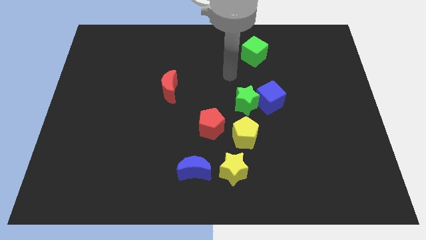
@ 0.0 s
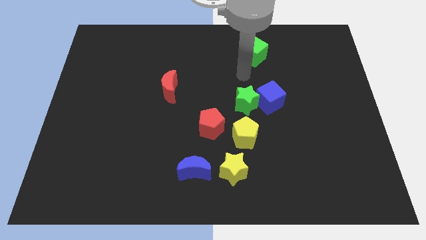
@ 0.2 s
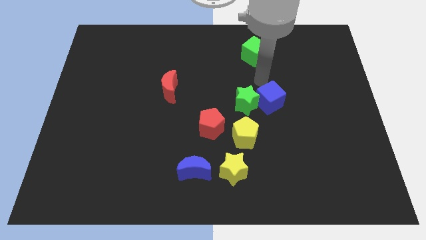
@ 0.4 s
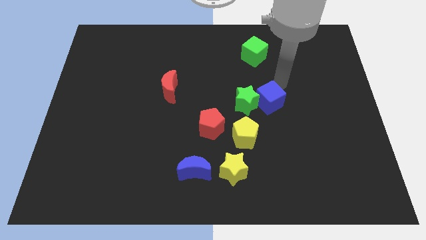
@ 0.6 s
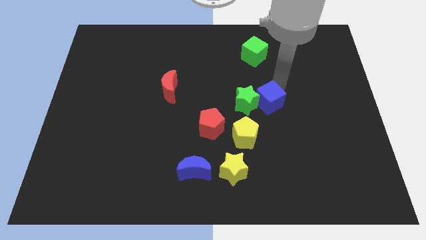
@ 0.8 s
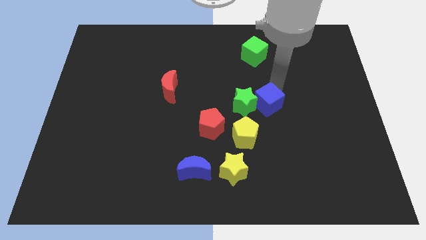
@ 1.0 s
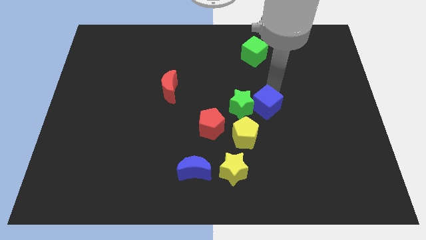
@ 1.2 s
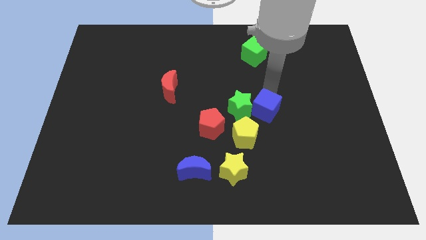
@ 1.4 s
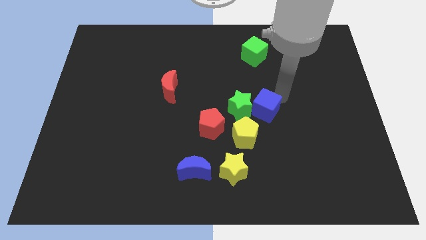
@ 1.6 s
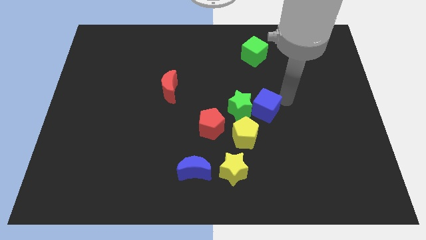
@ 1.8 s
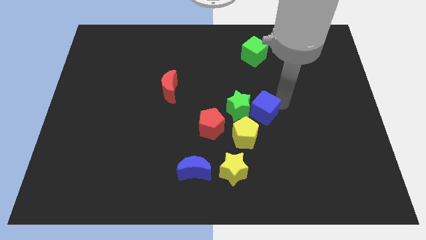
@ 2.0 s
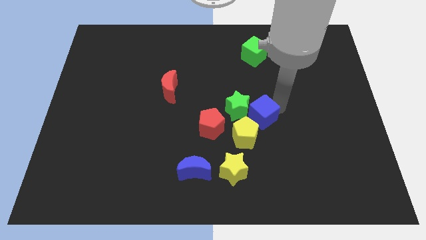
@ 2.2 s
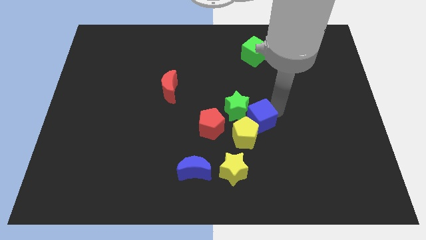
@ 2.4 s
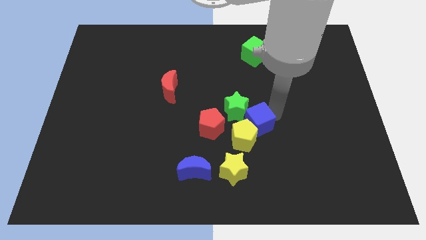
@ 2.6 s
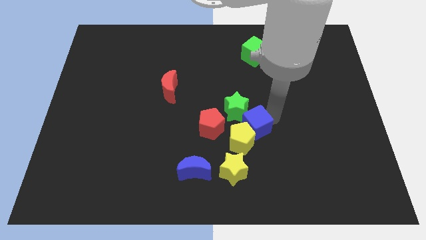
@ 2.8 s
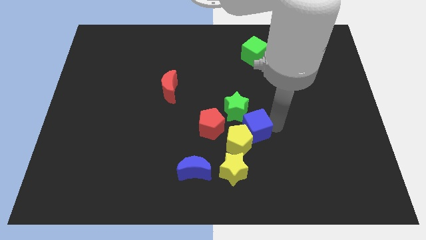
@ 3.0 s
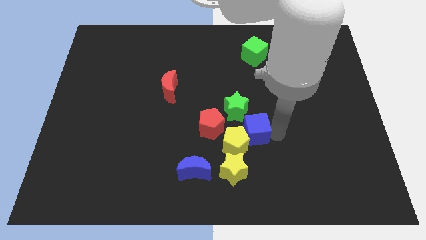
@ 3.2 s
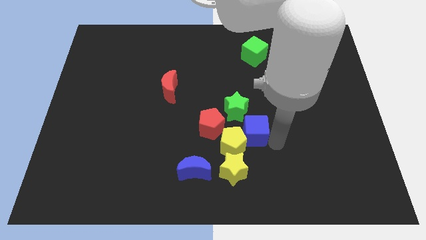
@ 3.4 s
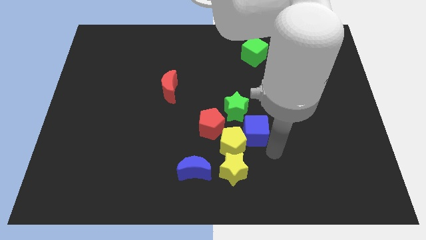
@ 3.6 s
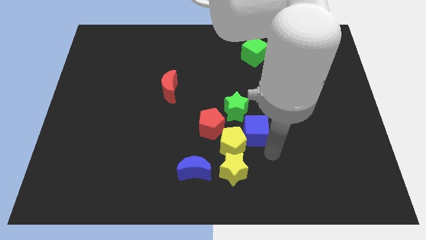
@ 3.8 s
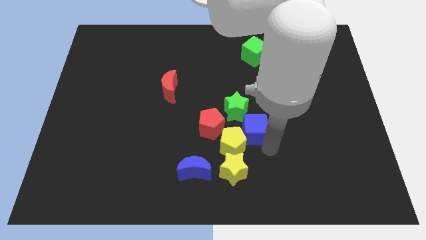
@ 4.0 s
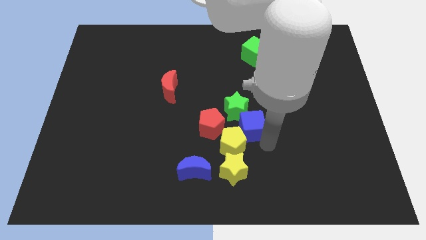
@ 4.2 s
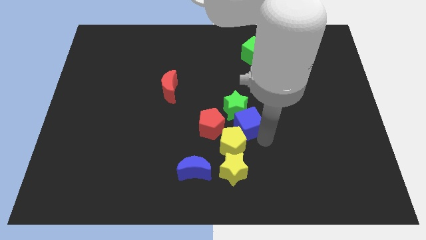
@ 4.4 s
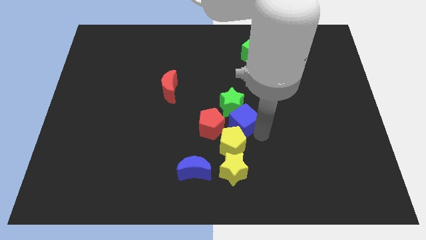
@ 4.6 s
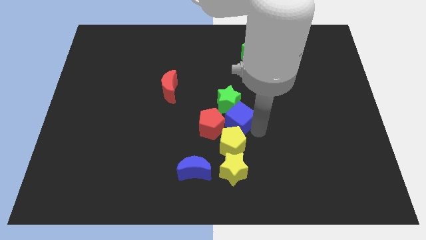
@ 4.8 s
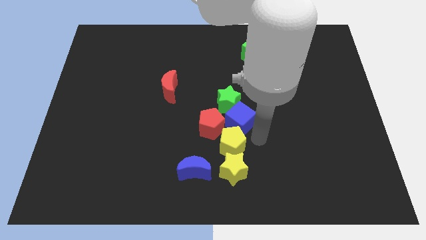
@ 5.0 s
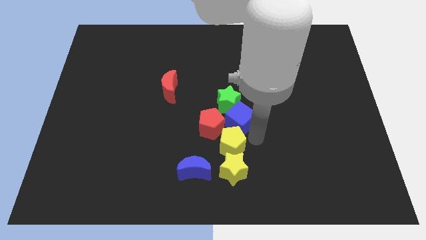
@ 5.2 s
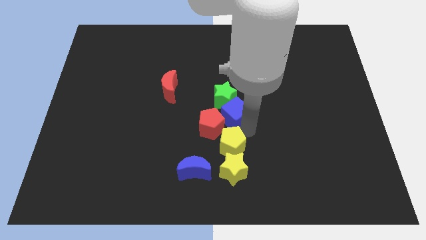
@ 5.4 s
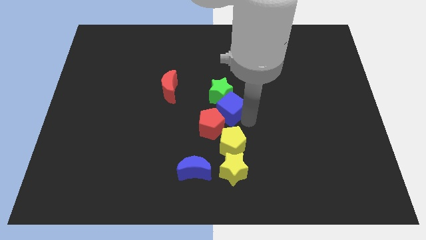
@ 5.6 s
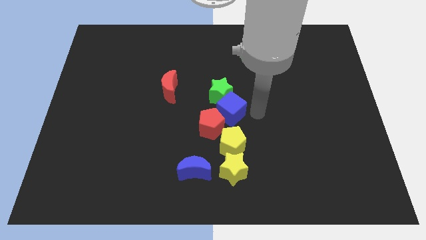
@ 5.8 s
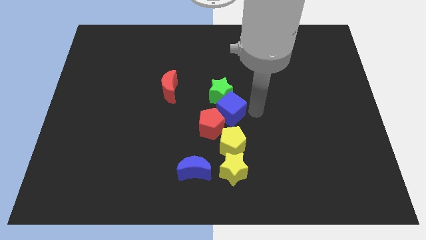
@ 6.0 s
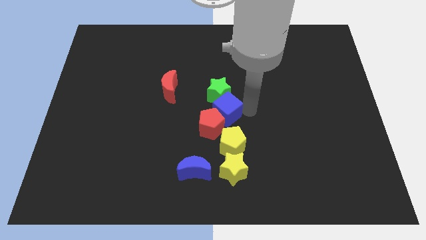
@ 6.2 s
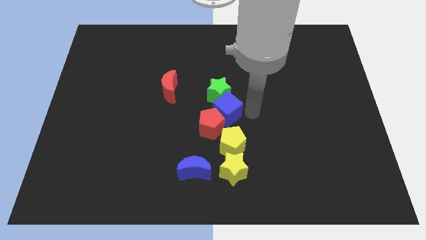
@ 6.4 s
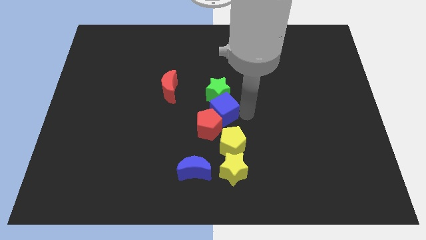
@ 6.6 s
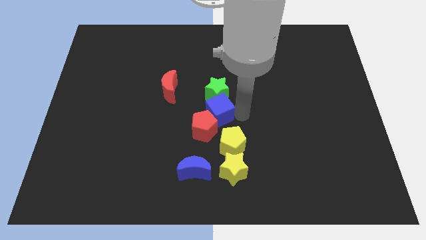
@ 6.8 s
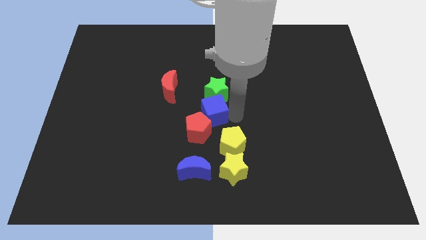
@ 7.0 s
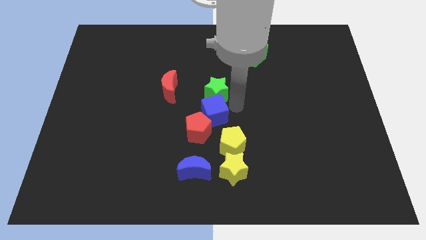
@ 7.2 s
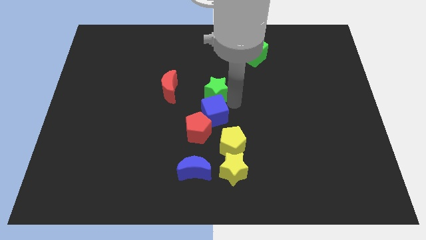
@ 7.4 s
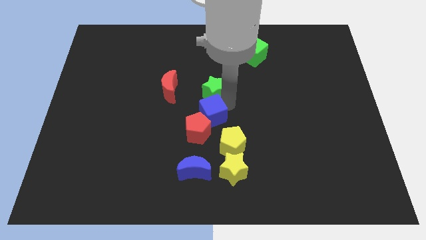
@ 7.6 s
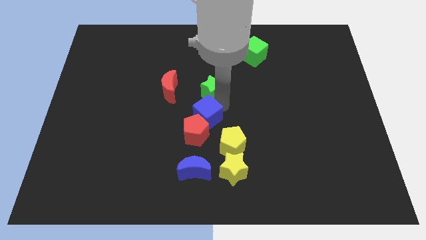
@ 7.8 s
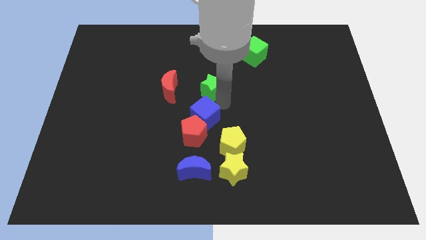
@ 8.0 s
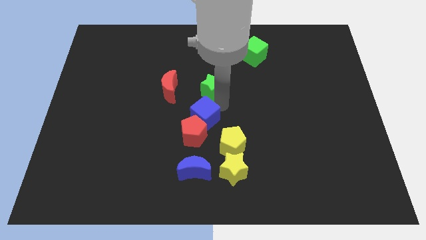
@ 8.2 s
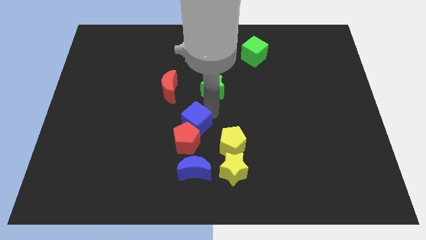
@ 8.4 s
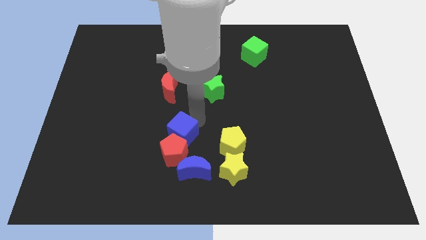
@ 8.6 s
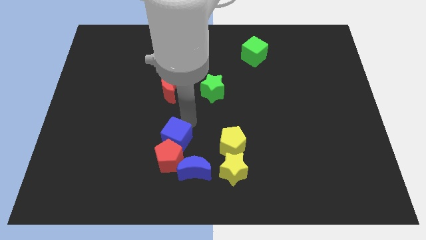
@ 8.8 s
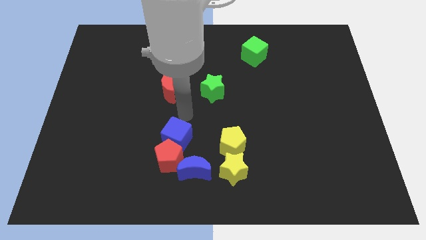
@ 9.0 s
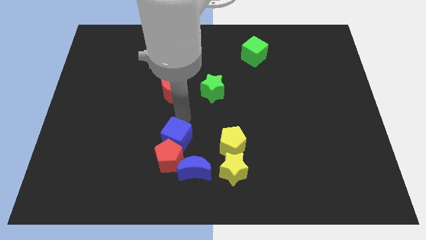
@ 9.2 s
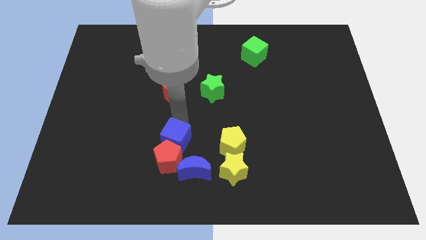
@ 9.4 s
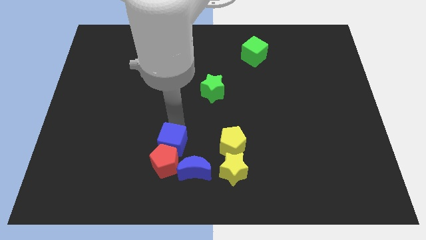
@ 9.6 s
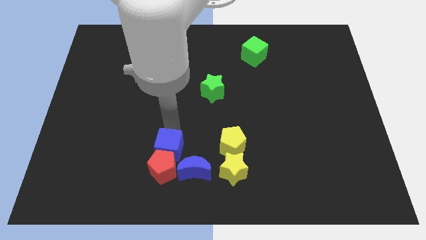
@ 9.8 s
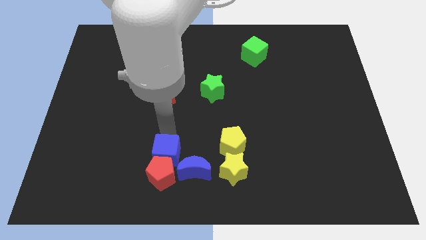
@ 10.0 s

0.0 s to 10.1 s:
push the blue cube to the left of the yellow star

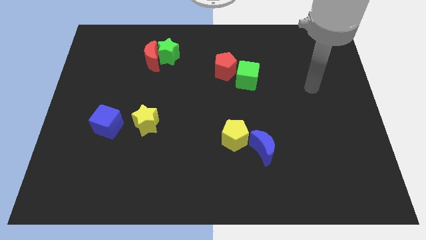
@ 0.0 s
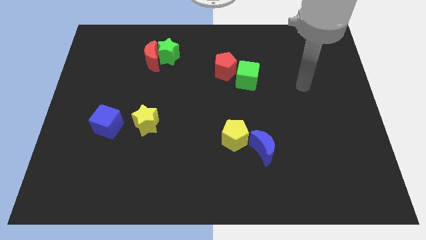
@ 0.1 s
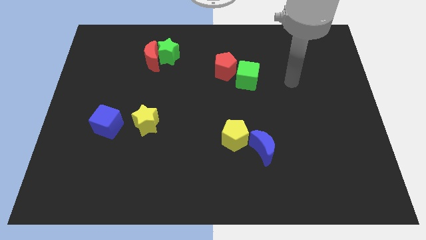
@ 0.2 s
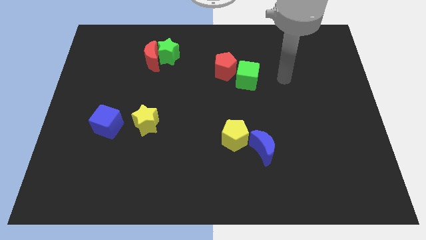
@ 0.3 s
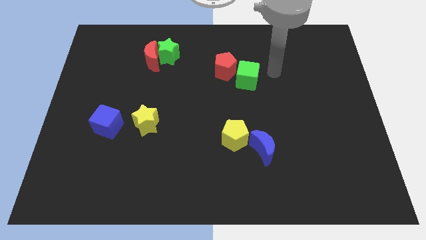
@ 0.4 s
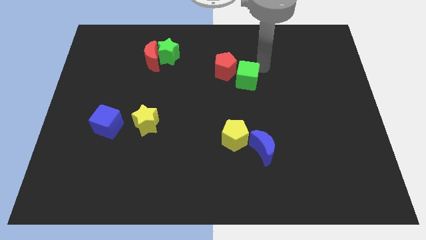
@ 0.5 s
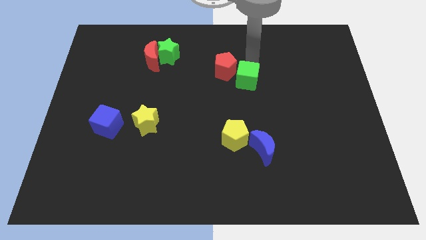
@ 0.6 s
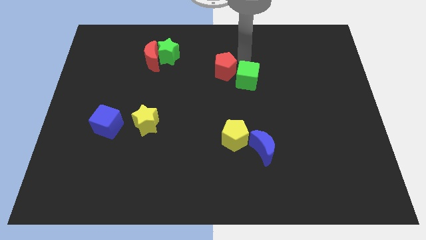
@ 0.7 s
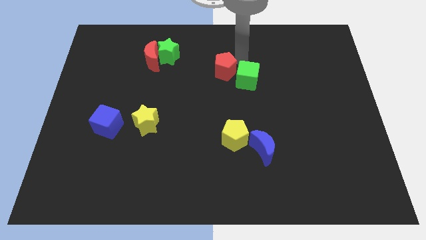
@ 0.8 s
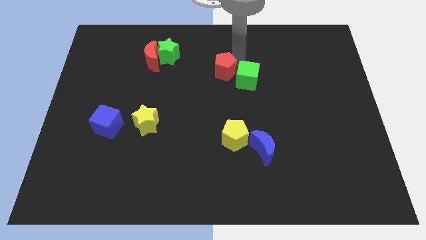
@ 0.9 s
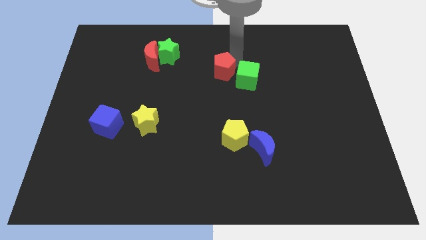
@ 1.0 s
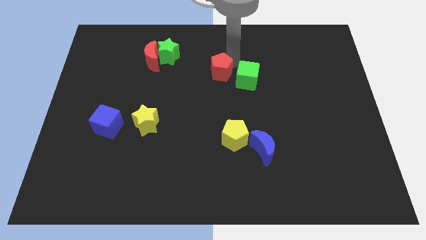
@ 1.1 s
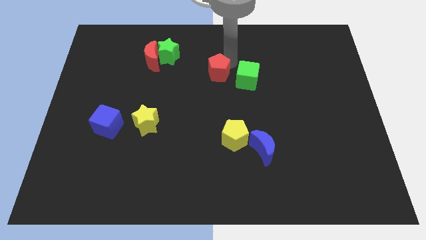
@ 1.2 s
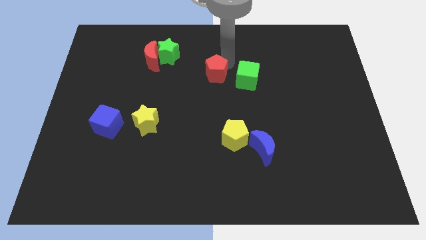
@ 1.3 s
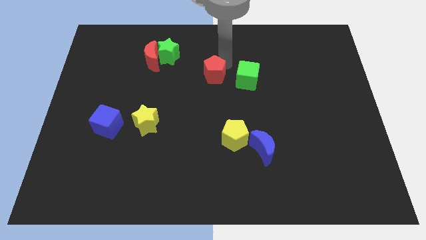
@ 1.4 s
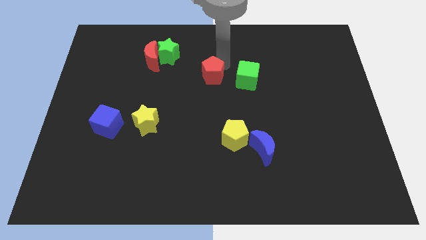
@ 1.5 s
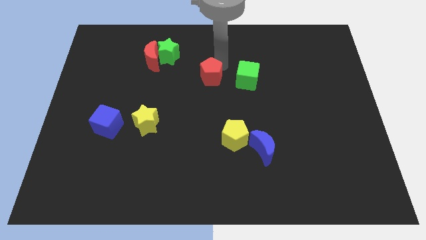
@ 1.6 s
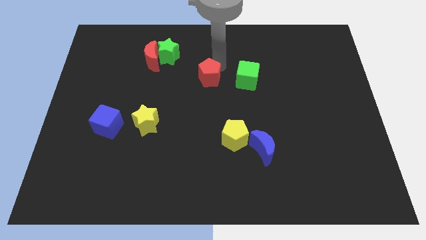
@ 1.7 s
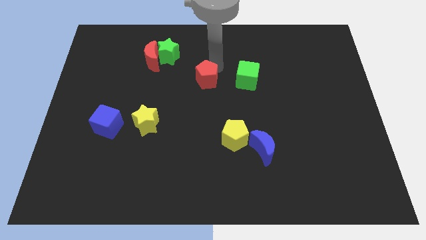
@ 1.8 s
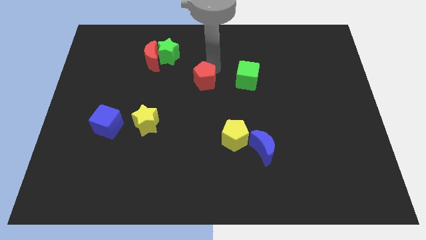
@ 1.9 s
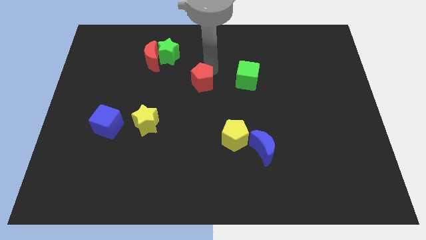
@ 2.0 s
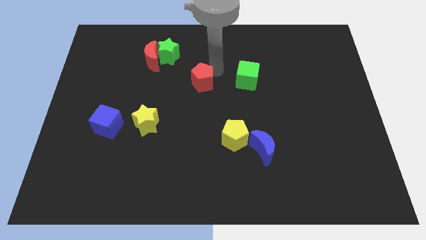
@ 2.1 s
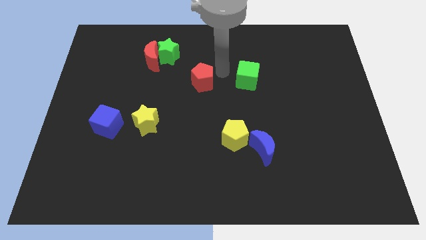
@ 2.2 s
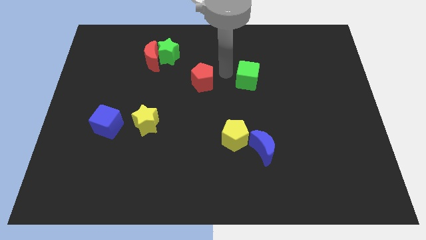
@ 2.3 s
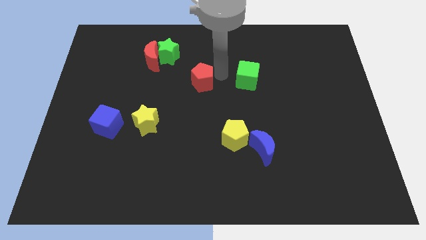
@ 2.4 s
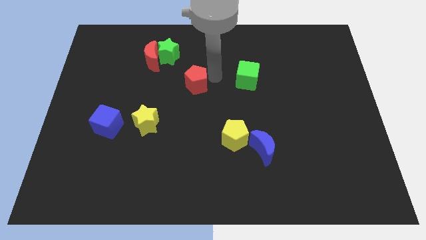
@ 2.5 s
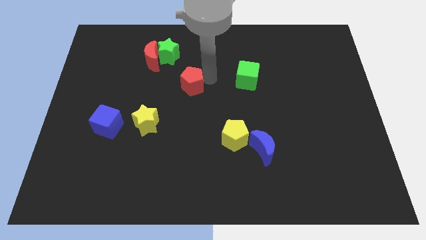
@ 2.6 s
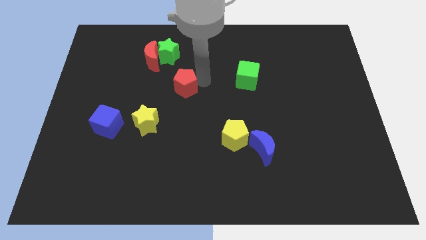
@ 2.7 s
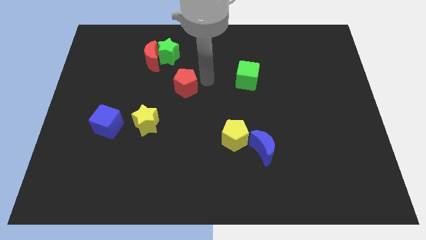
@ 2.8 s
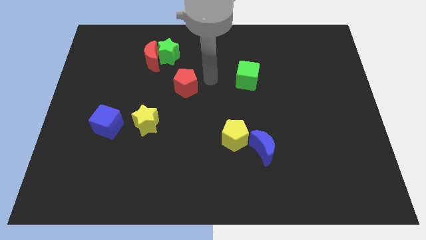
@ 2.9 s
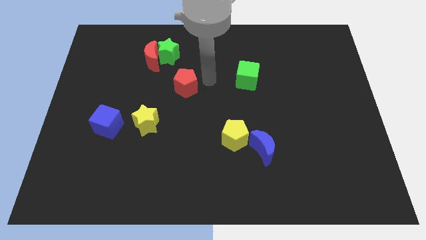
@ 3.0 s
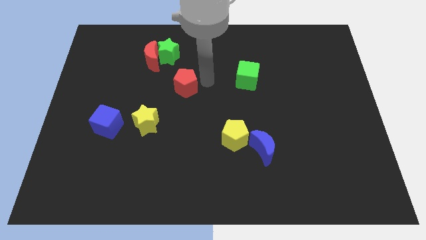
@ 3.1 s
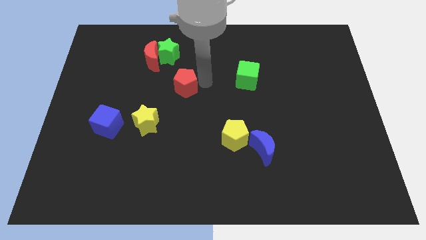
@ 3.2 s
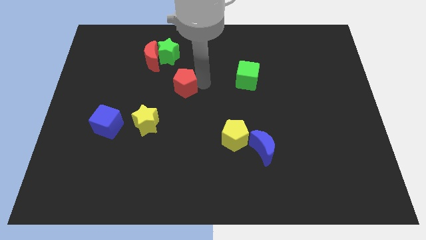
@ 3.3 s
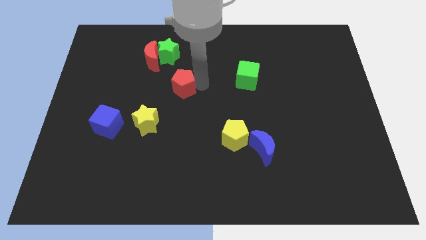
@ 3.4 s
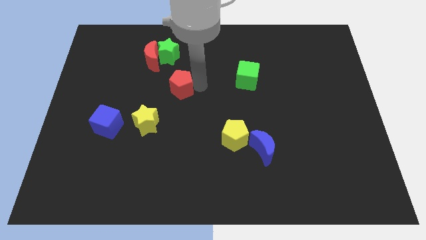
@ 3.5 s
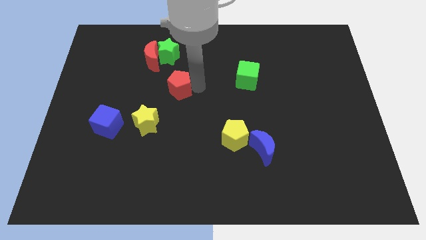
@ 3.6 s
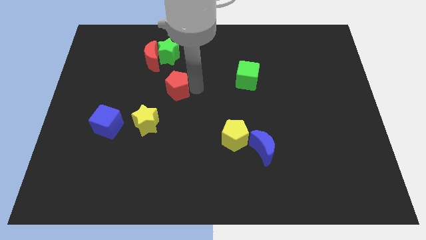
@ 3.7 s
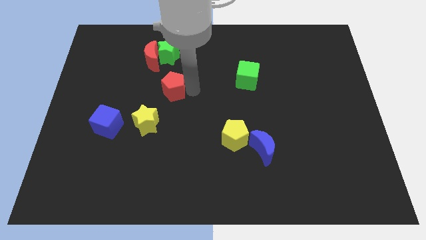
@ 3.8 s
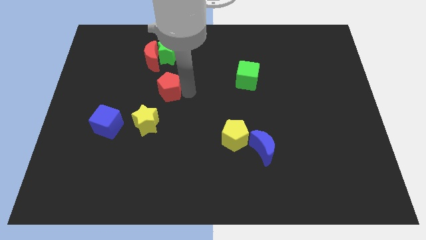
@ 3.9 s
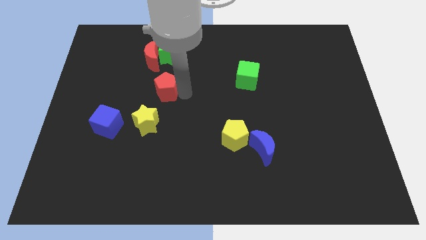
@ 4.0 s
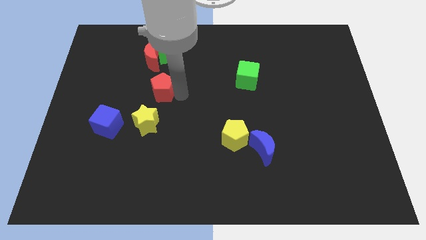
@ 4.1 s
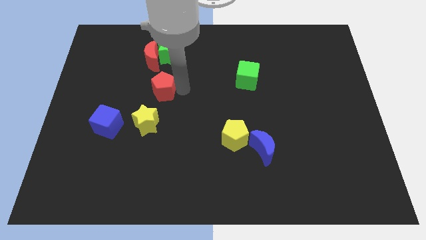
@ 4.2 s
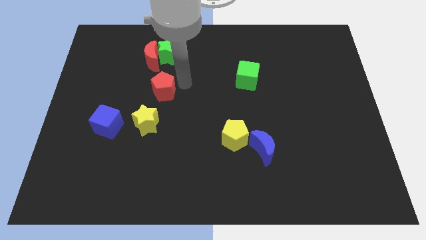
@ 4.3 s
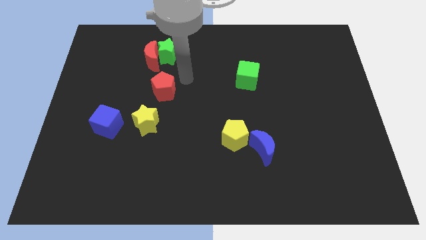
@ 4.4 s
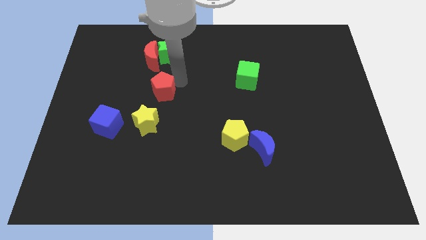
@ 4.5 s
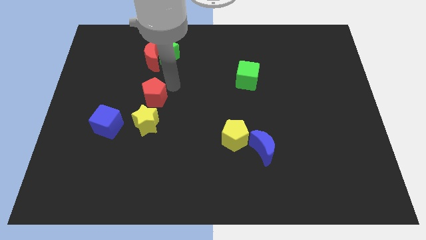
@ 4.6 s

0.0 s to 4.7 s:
slide the red pentagon diagonally up and to the right of the blue cube
